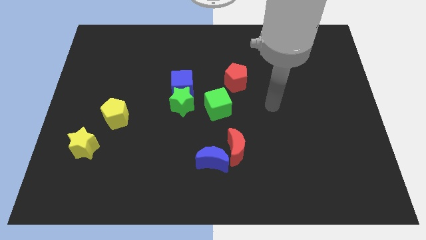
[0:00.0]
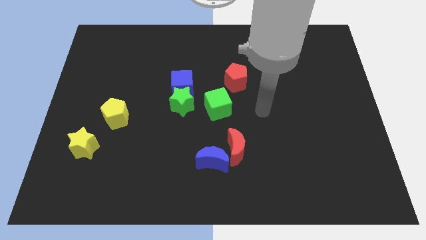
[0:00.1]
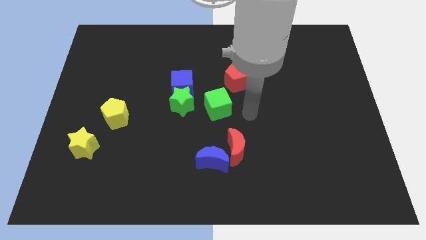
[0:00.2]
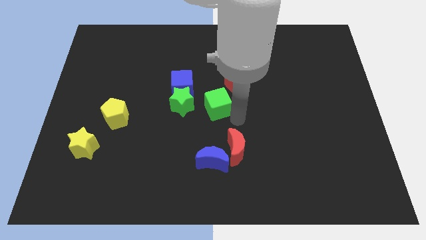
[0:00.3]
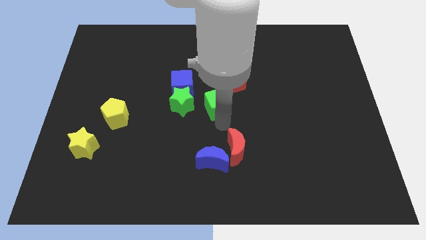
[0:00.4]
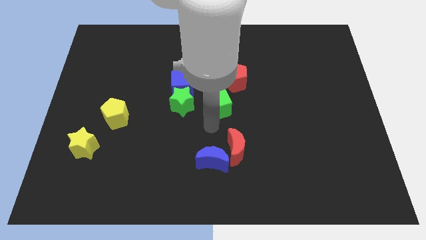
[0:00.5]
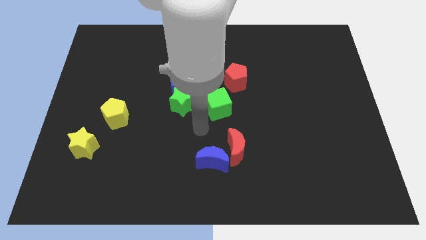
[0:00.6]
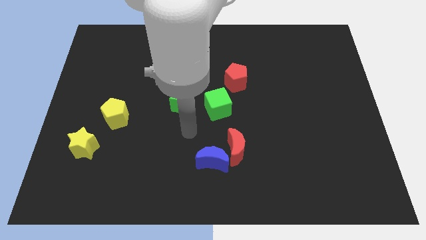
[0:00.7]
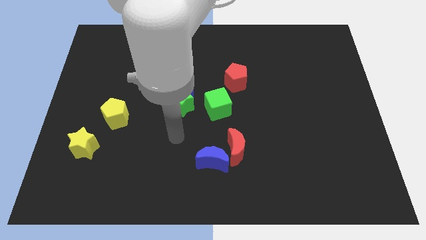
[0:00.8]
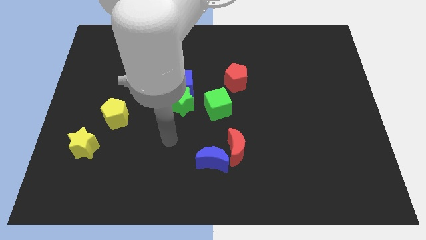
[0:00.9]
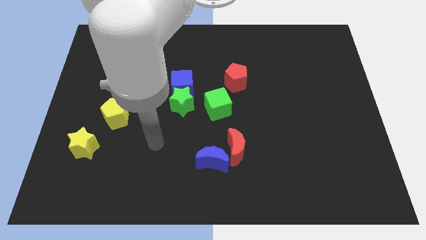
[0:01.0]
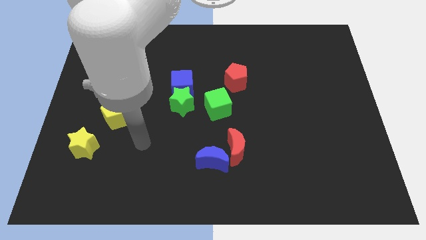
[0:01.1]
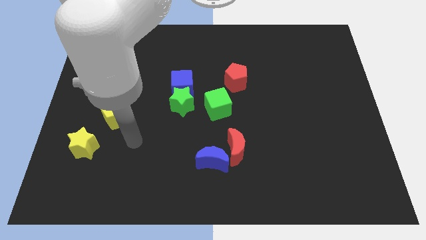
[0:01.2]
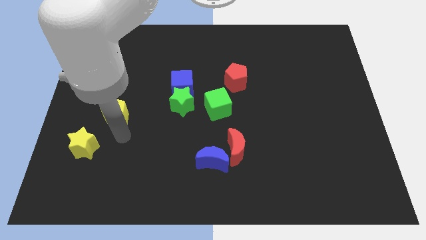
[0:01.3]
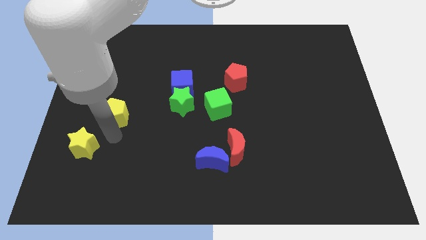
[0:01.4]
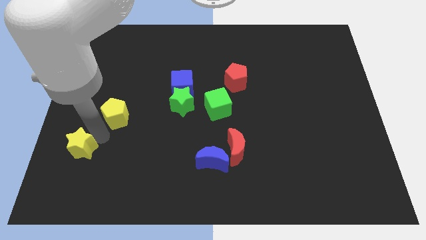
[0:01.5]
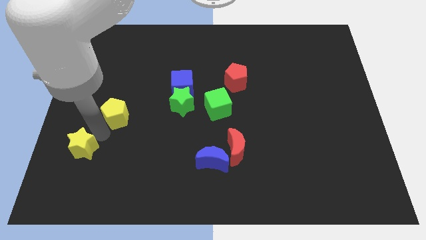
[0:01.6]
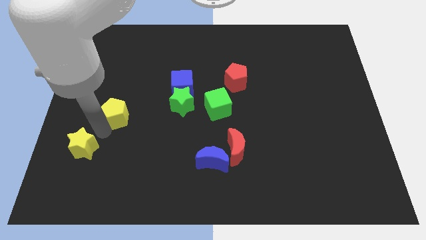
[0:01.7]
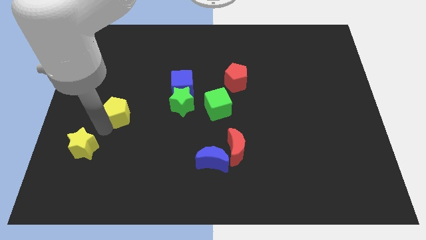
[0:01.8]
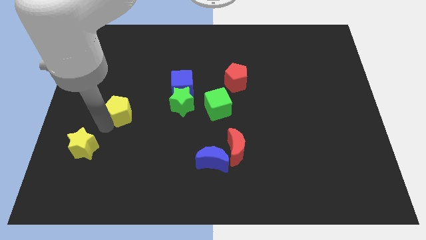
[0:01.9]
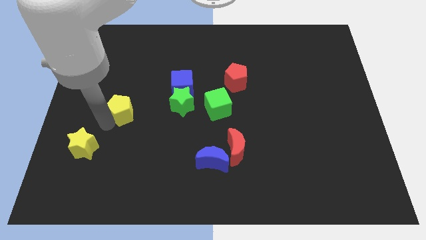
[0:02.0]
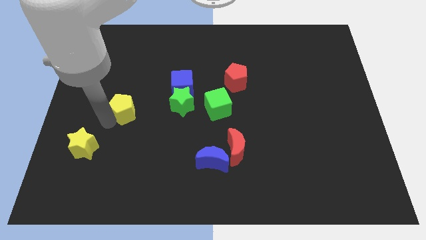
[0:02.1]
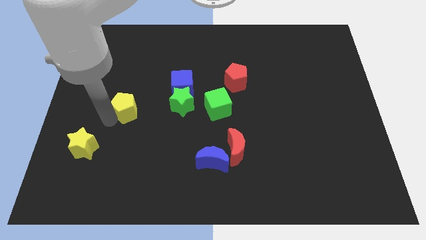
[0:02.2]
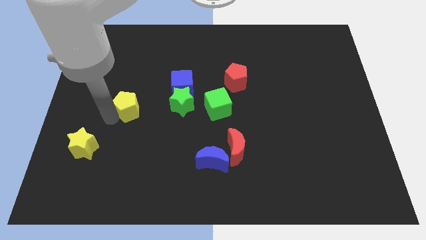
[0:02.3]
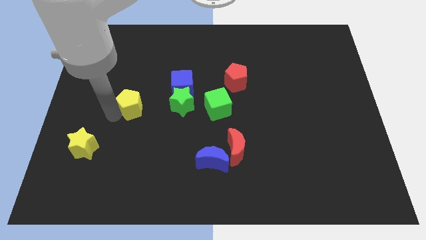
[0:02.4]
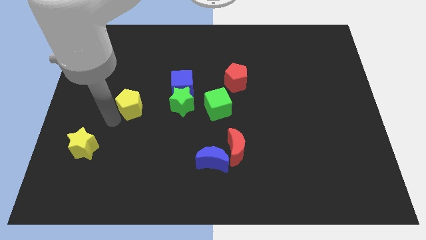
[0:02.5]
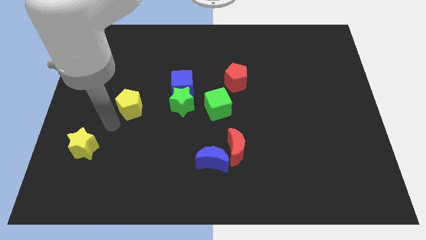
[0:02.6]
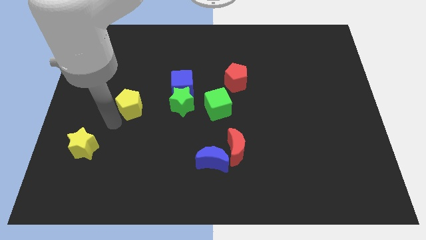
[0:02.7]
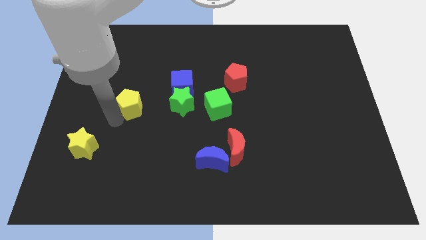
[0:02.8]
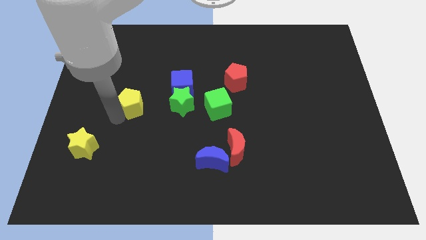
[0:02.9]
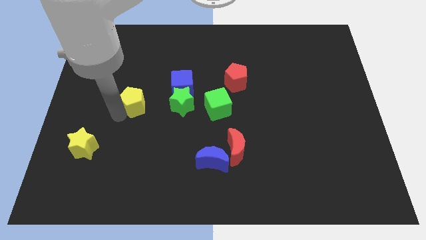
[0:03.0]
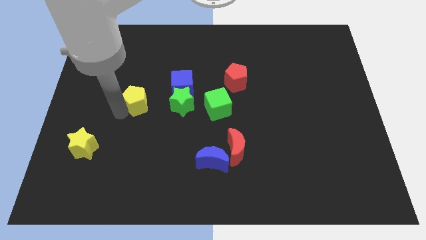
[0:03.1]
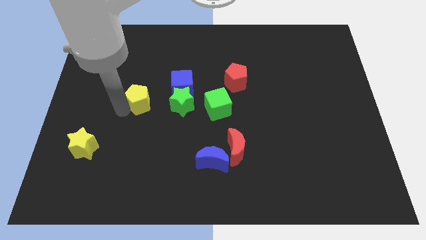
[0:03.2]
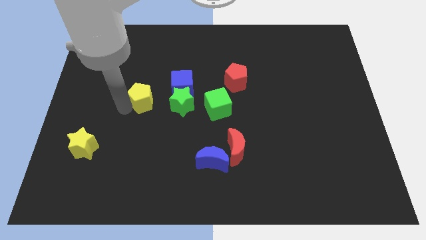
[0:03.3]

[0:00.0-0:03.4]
push the yellow pentagon up and then to the right somewhat

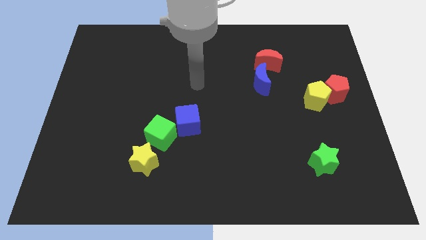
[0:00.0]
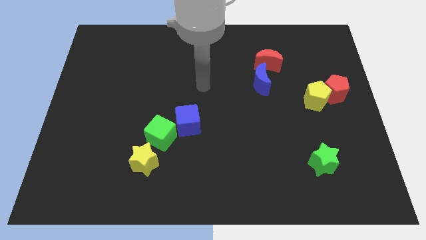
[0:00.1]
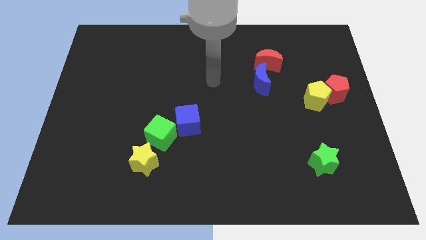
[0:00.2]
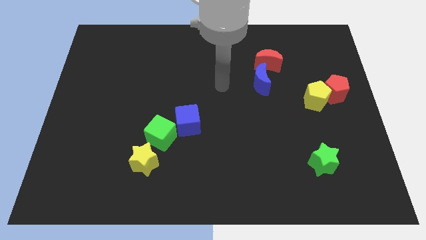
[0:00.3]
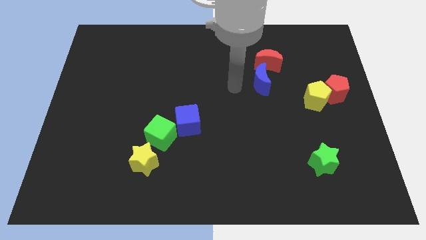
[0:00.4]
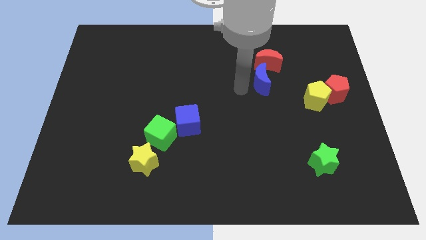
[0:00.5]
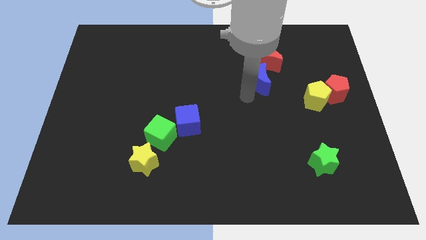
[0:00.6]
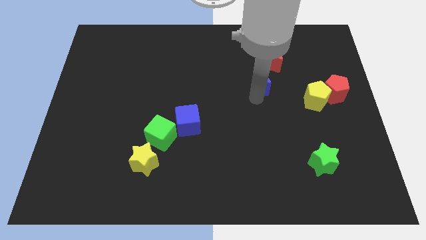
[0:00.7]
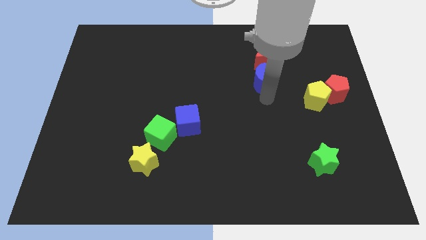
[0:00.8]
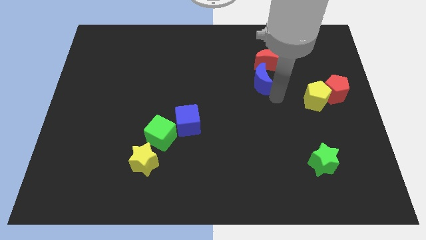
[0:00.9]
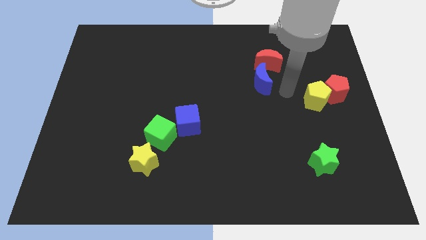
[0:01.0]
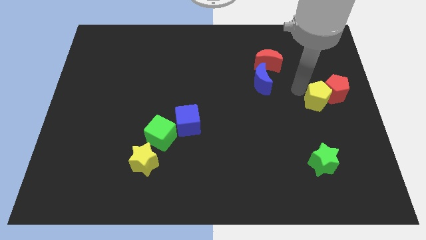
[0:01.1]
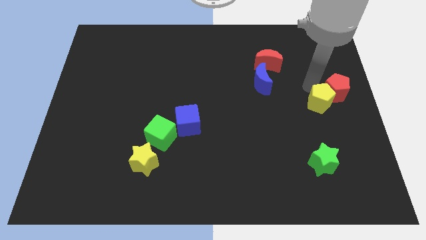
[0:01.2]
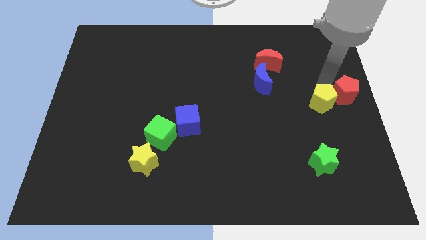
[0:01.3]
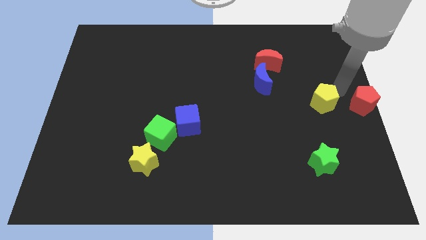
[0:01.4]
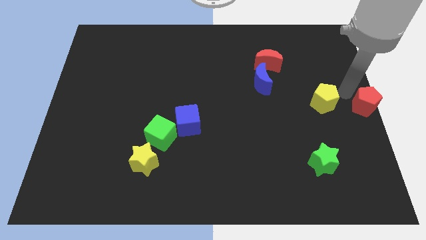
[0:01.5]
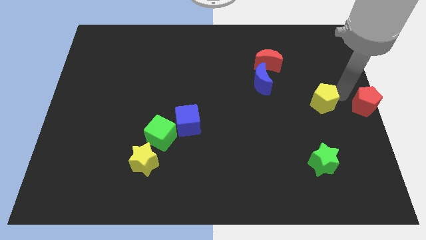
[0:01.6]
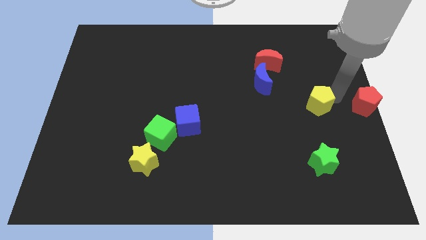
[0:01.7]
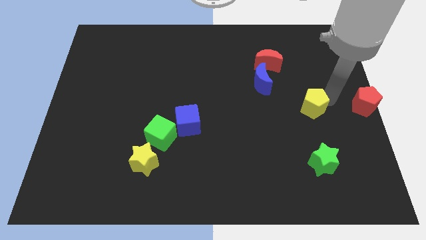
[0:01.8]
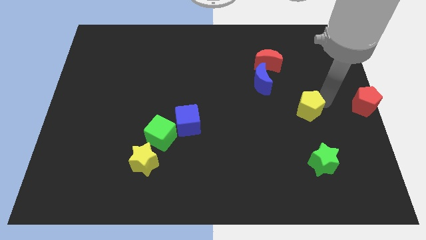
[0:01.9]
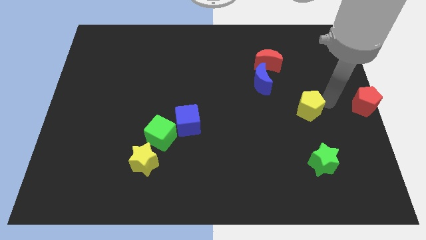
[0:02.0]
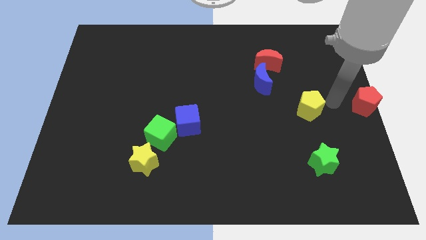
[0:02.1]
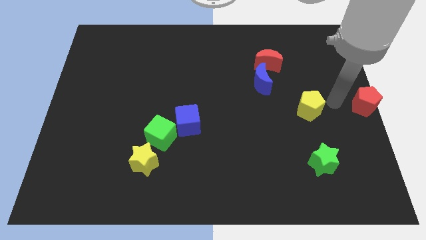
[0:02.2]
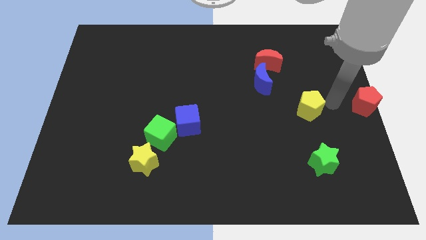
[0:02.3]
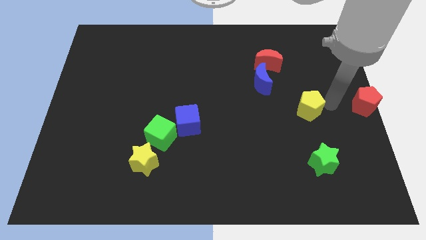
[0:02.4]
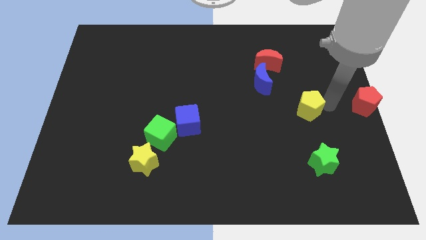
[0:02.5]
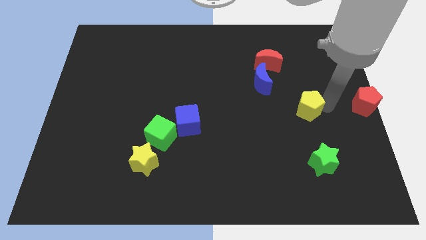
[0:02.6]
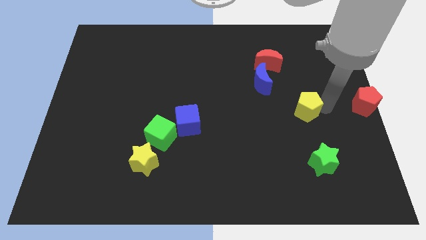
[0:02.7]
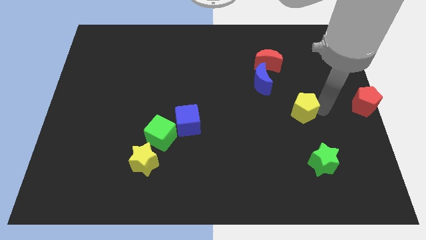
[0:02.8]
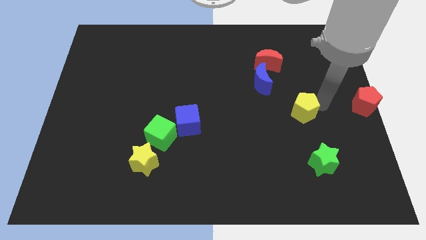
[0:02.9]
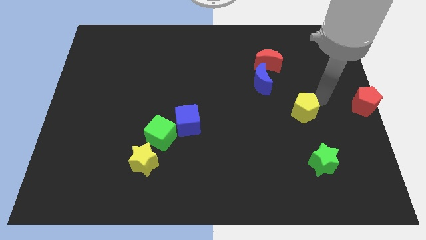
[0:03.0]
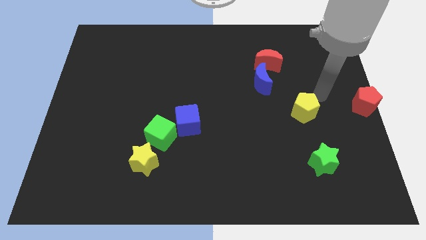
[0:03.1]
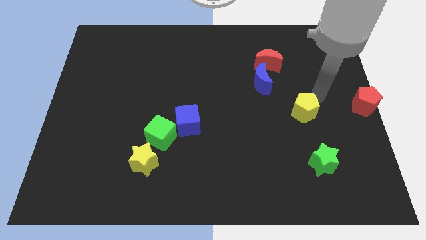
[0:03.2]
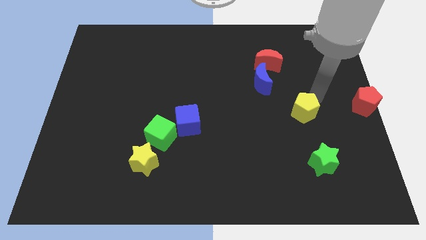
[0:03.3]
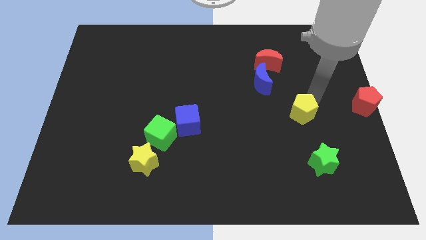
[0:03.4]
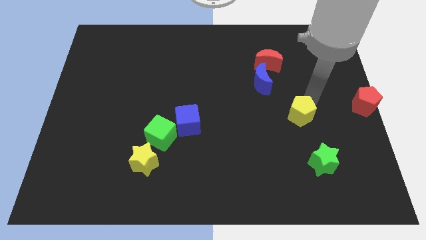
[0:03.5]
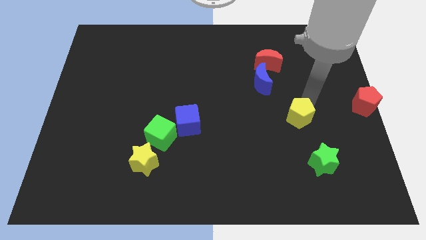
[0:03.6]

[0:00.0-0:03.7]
move the yellow pentagon slightly downwards and to the left diagonally

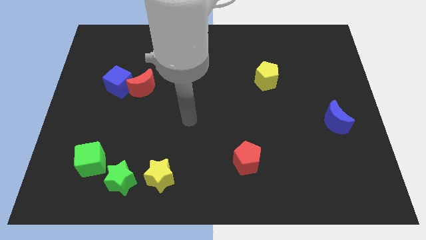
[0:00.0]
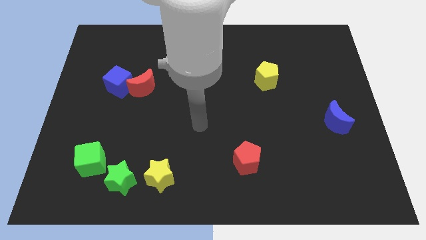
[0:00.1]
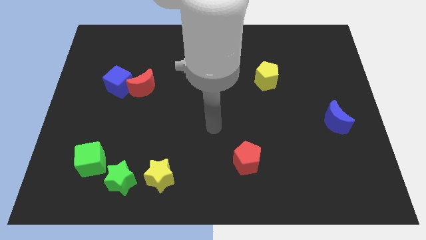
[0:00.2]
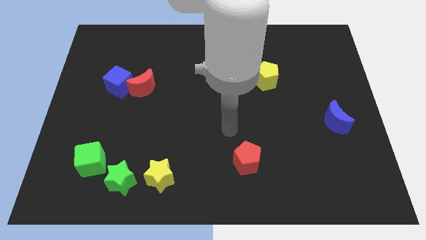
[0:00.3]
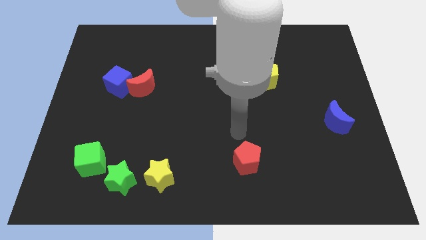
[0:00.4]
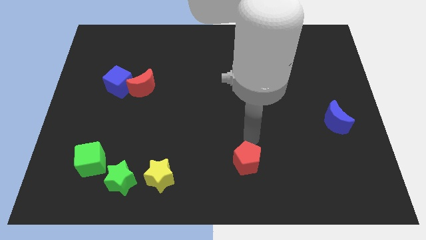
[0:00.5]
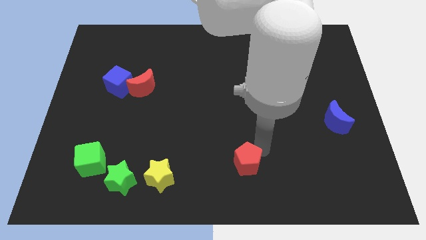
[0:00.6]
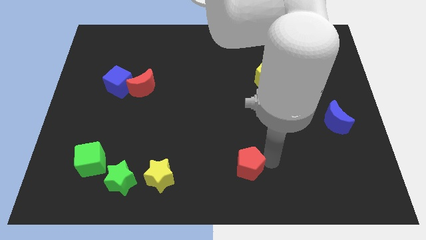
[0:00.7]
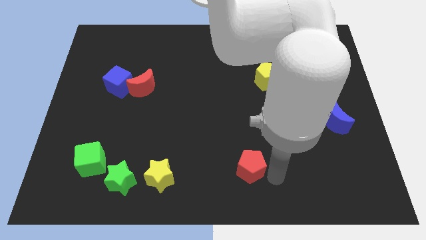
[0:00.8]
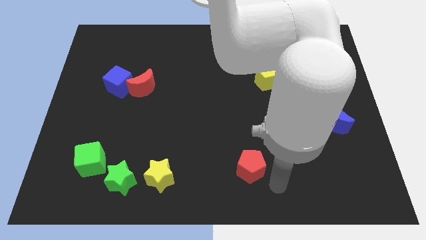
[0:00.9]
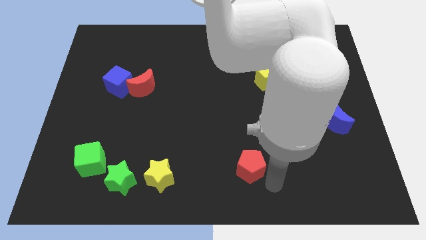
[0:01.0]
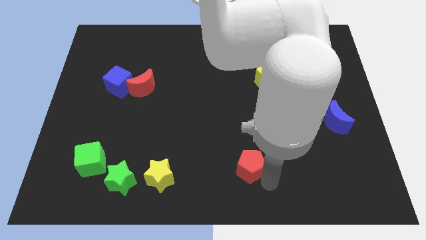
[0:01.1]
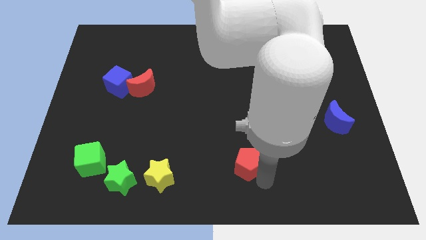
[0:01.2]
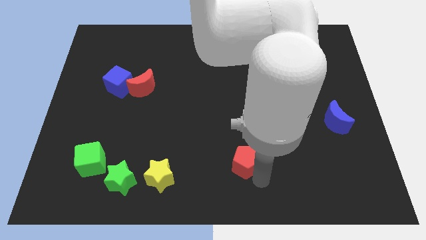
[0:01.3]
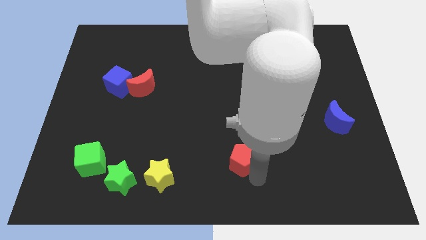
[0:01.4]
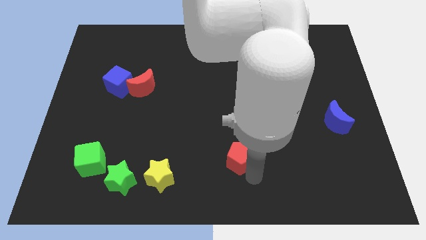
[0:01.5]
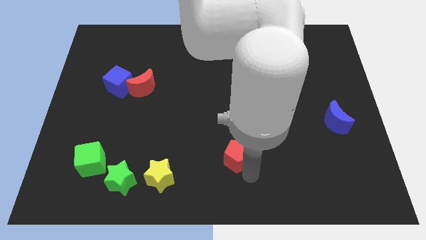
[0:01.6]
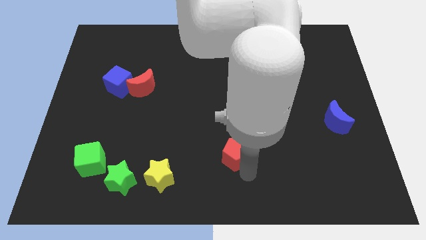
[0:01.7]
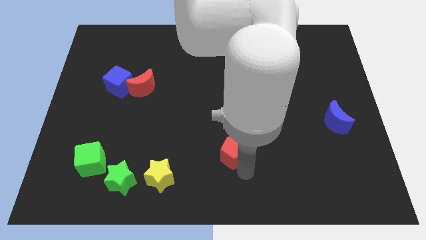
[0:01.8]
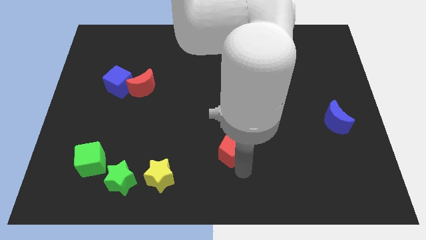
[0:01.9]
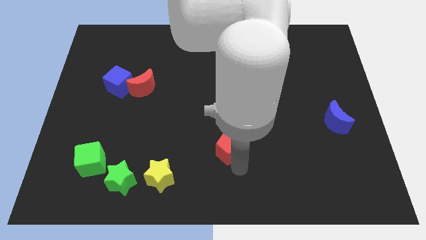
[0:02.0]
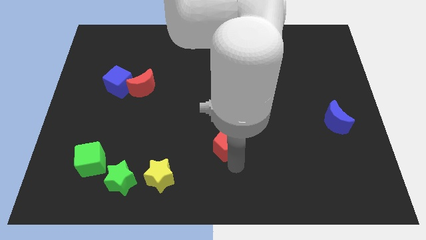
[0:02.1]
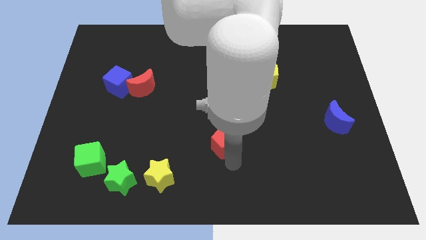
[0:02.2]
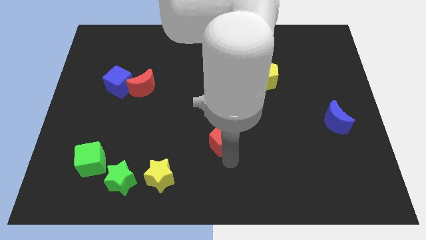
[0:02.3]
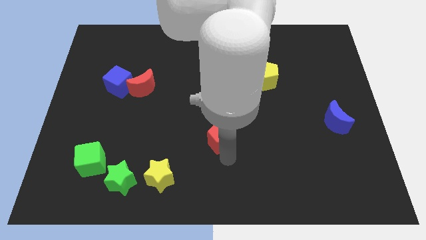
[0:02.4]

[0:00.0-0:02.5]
slightly push the red pentagon up and left diagonally
